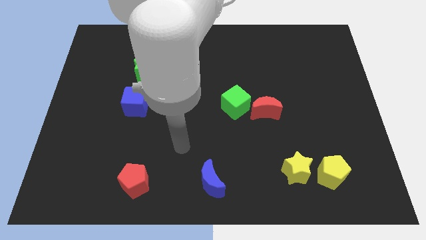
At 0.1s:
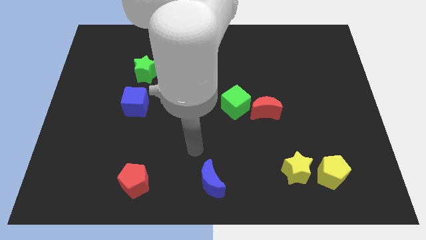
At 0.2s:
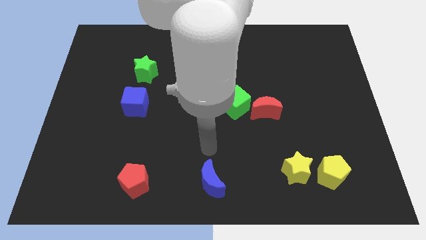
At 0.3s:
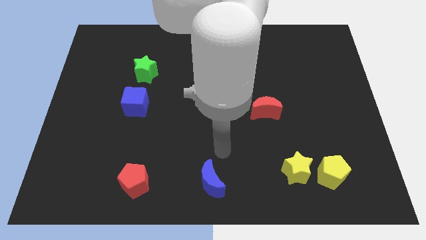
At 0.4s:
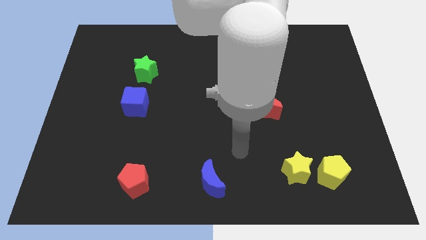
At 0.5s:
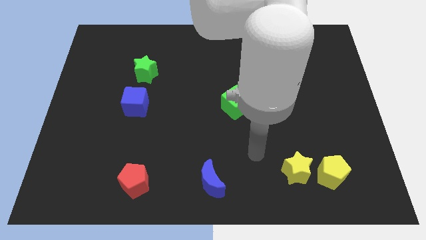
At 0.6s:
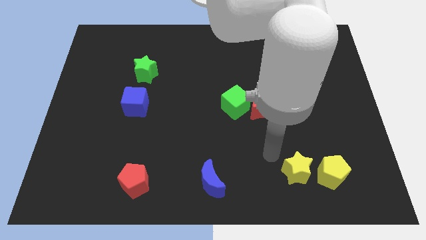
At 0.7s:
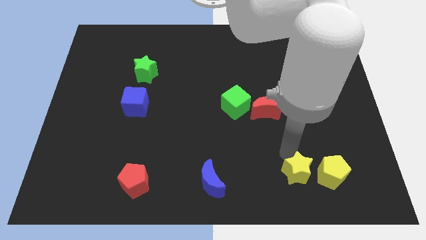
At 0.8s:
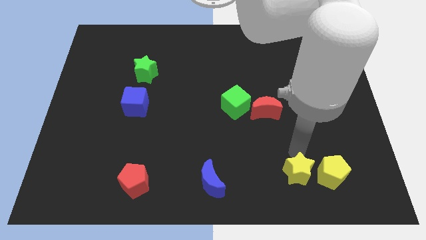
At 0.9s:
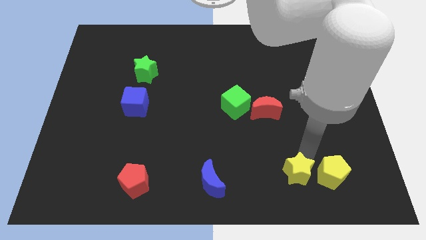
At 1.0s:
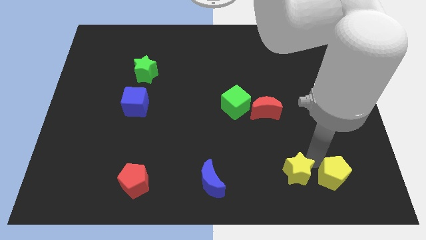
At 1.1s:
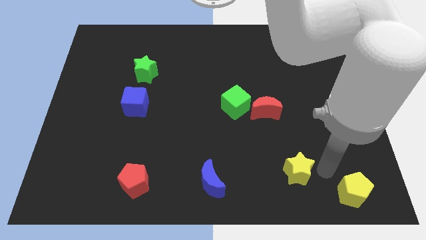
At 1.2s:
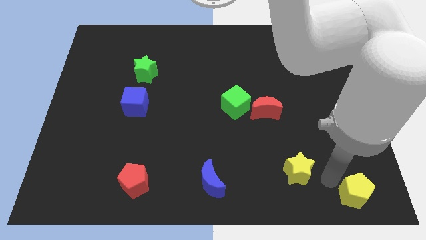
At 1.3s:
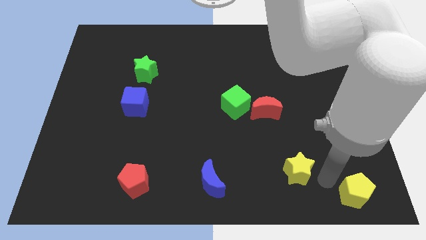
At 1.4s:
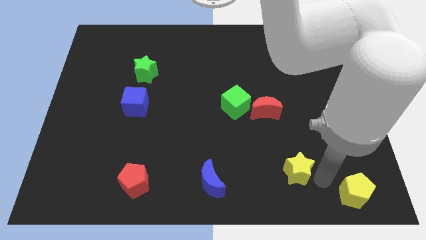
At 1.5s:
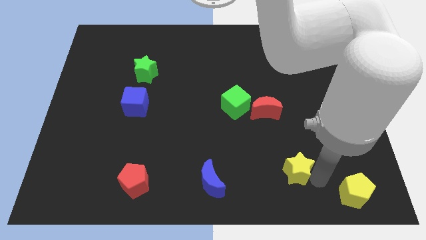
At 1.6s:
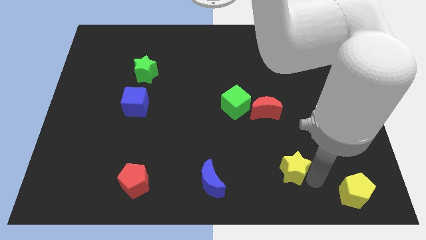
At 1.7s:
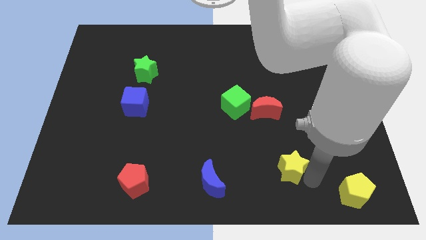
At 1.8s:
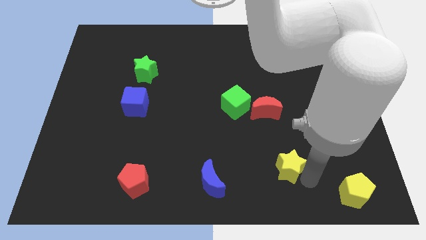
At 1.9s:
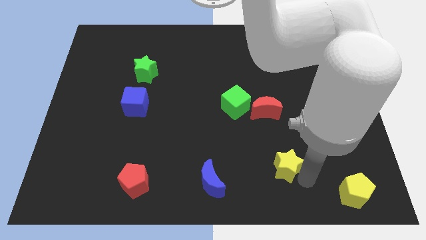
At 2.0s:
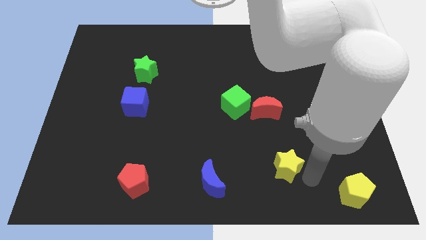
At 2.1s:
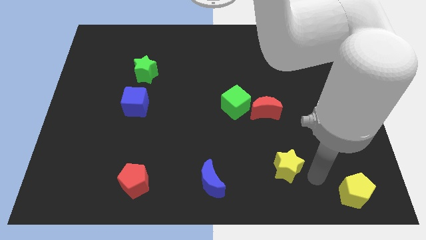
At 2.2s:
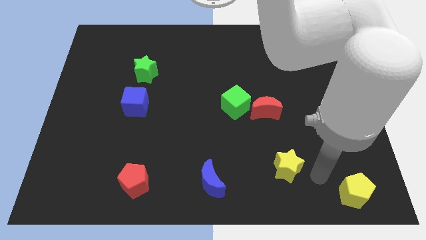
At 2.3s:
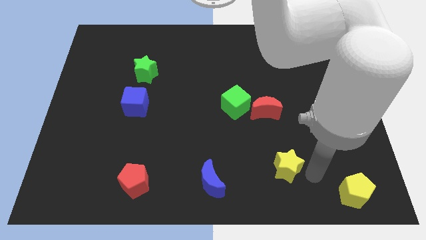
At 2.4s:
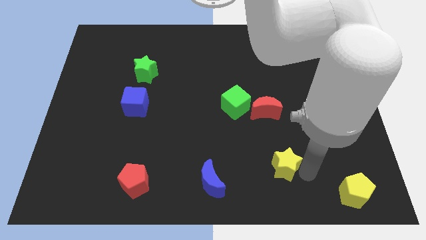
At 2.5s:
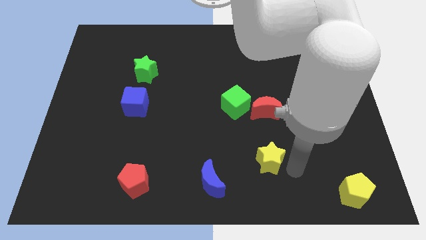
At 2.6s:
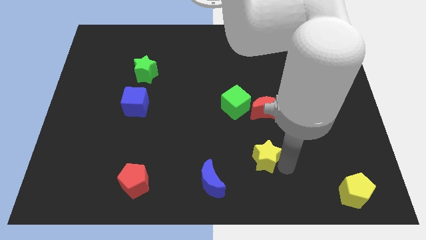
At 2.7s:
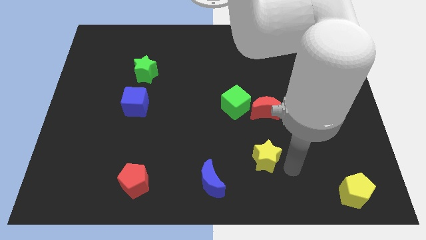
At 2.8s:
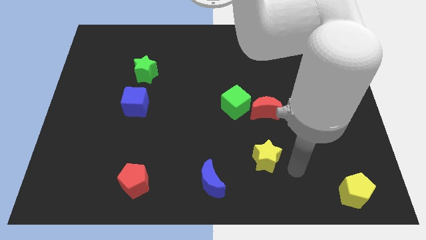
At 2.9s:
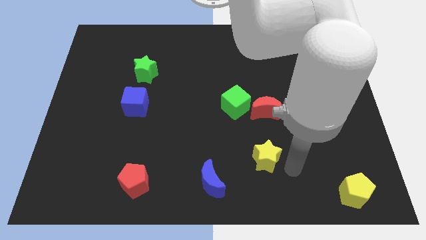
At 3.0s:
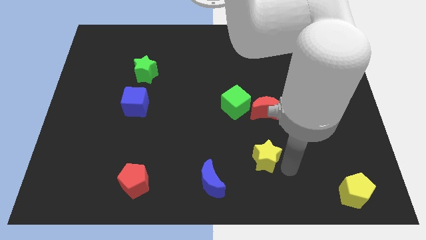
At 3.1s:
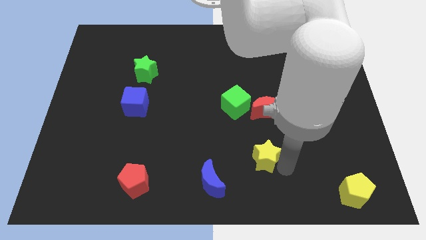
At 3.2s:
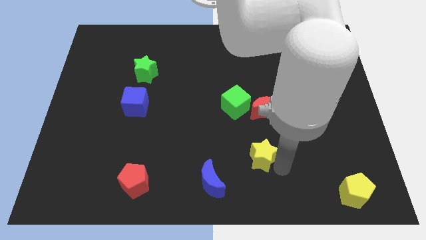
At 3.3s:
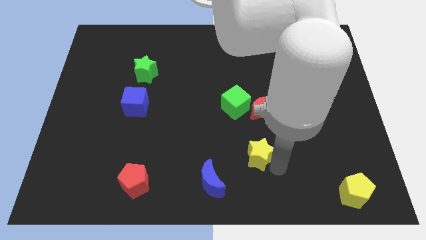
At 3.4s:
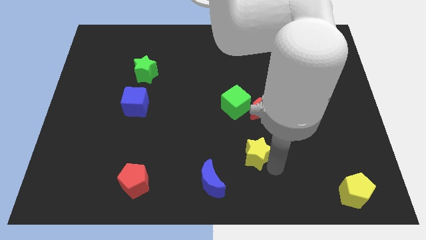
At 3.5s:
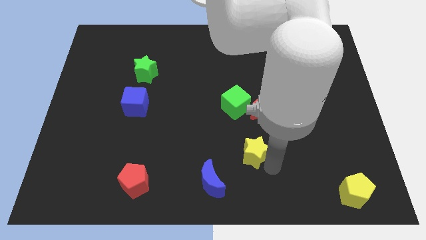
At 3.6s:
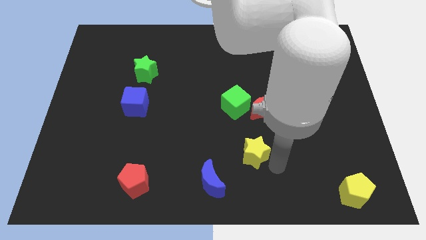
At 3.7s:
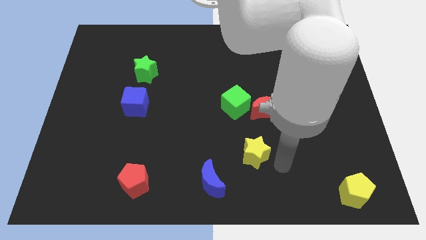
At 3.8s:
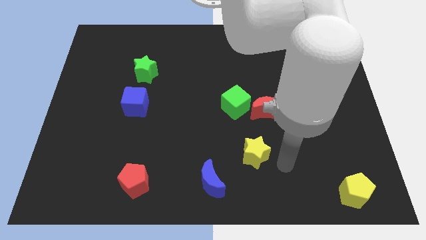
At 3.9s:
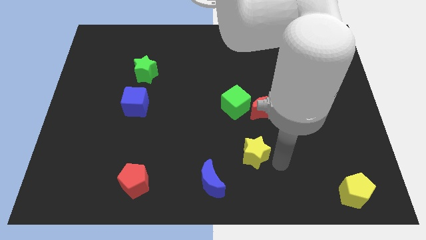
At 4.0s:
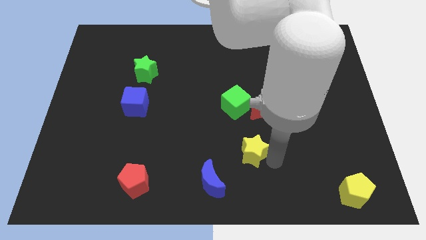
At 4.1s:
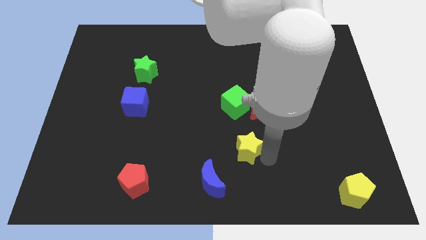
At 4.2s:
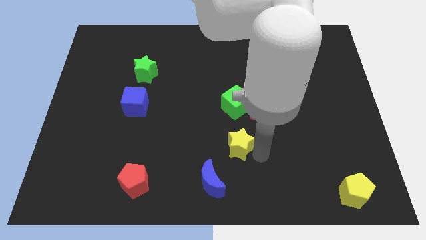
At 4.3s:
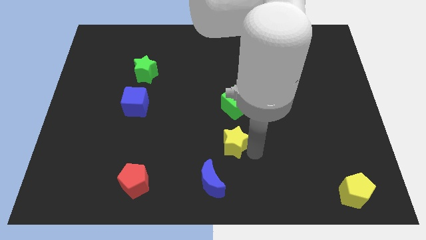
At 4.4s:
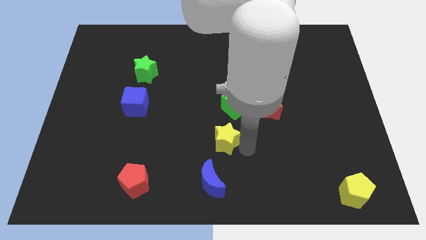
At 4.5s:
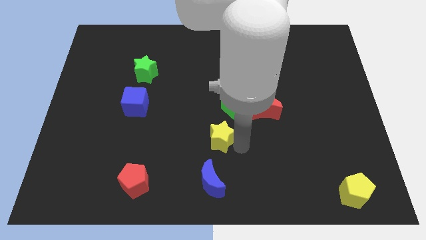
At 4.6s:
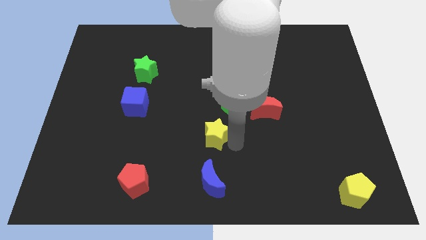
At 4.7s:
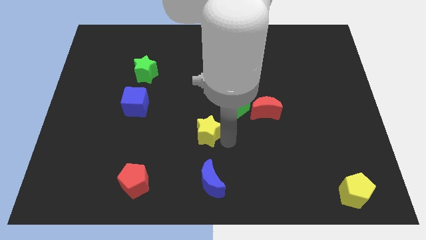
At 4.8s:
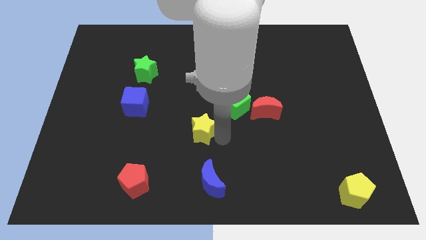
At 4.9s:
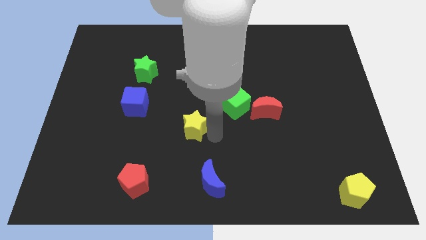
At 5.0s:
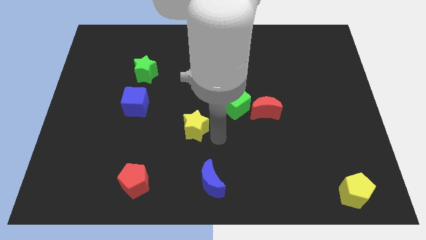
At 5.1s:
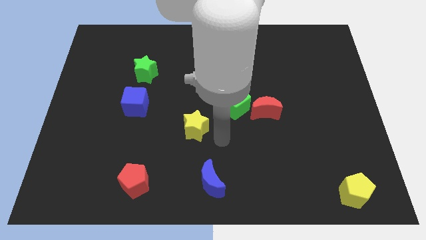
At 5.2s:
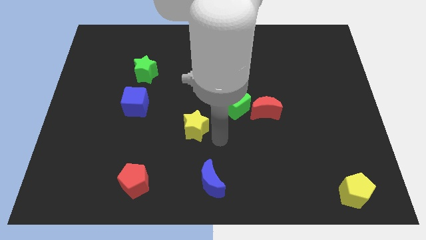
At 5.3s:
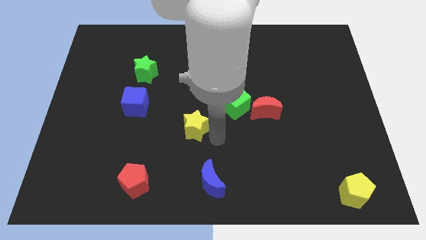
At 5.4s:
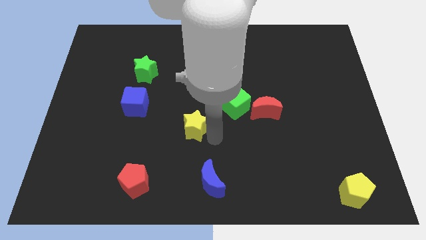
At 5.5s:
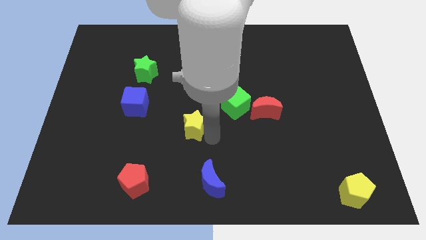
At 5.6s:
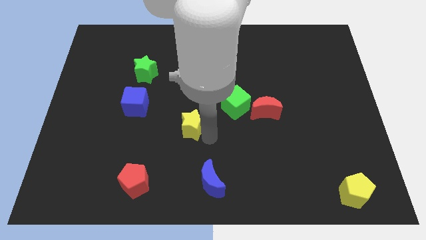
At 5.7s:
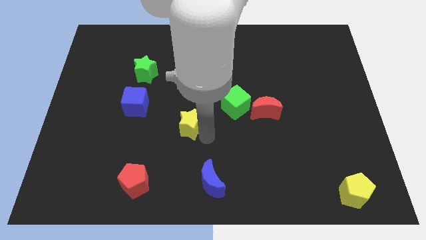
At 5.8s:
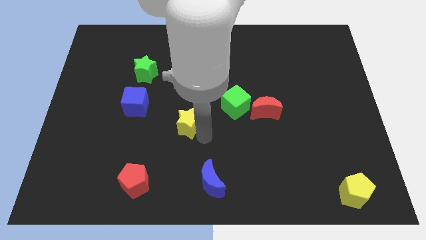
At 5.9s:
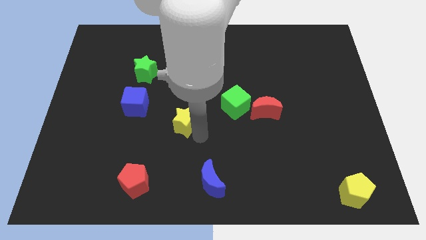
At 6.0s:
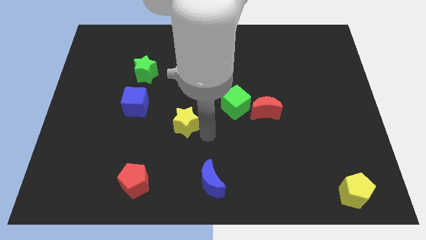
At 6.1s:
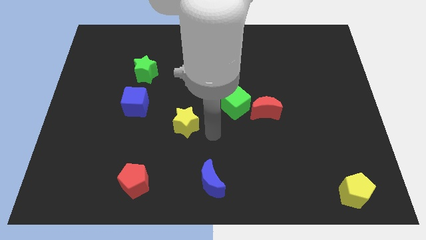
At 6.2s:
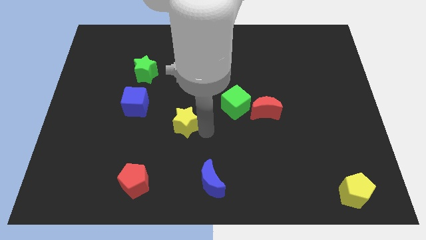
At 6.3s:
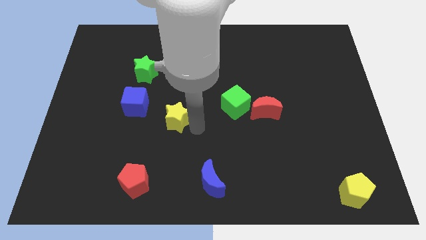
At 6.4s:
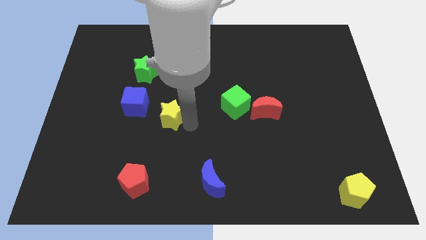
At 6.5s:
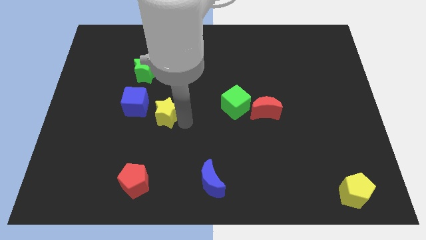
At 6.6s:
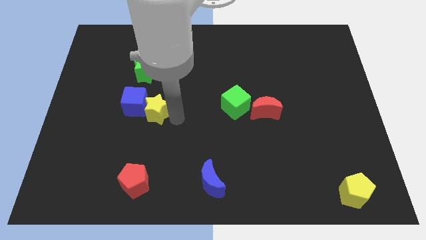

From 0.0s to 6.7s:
push the yellow star to the blue cube

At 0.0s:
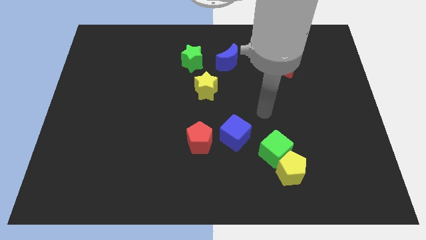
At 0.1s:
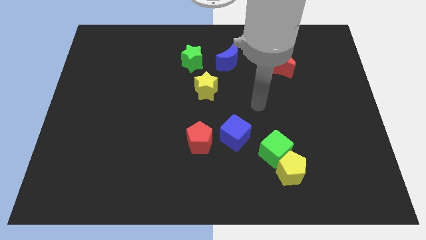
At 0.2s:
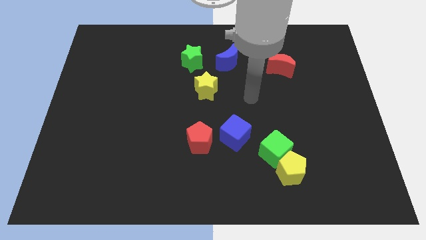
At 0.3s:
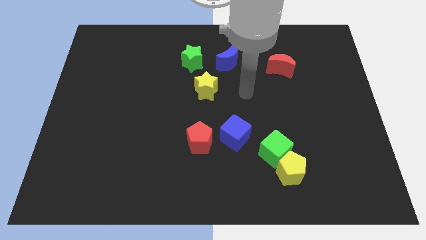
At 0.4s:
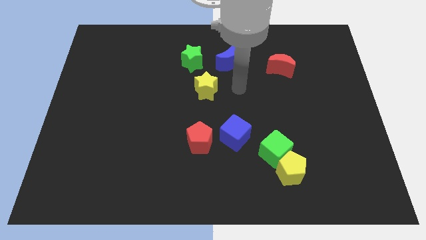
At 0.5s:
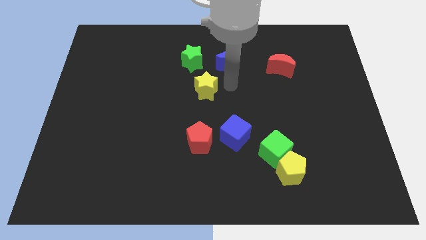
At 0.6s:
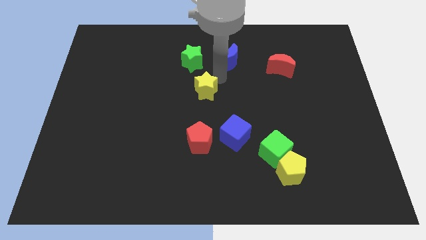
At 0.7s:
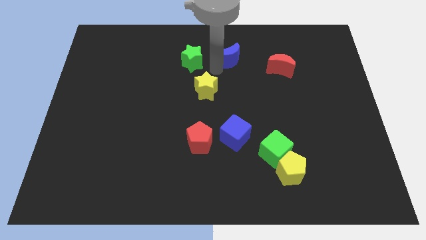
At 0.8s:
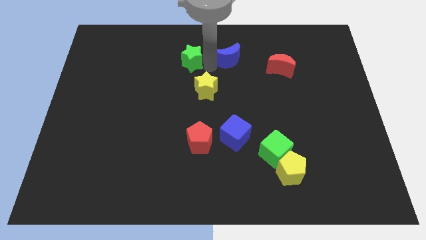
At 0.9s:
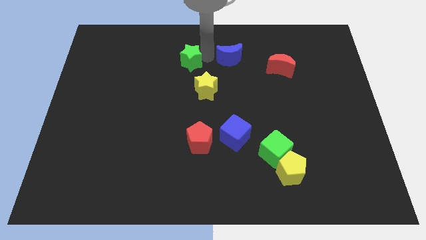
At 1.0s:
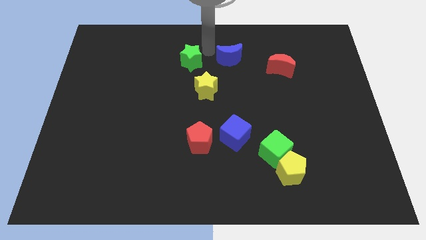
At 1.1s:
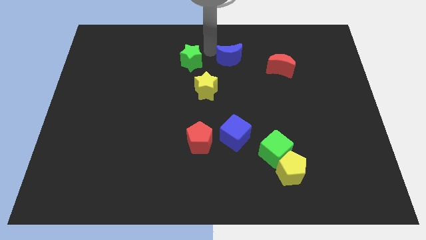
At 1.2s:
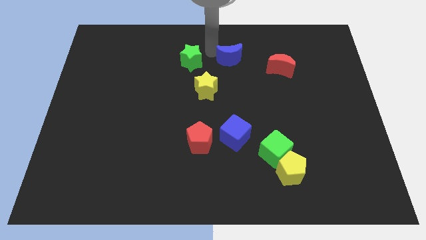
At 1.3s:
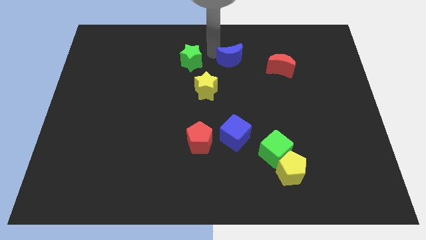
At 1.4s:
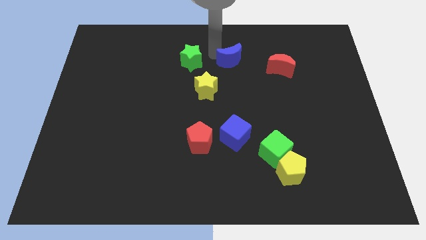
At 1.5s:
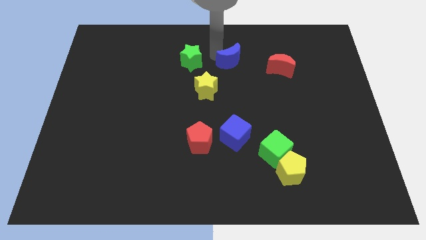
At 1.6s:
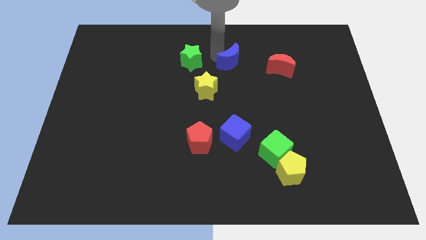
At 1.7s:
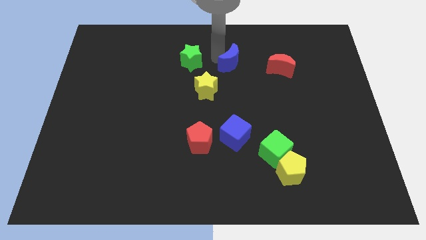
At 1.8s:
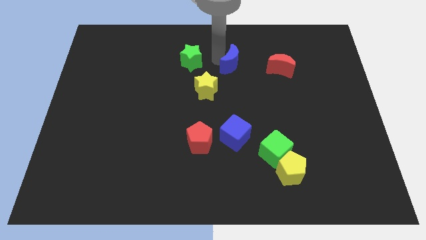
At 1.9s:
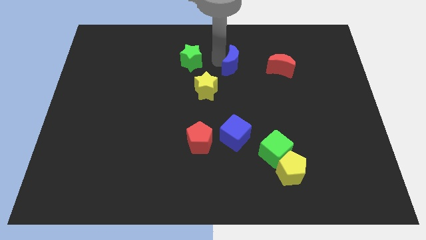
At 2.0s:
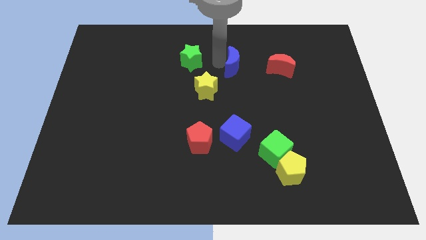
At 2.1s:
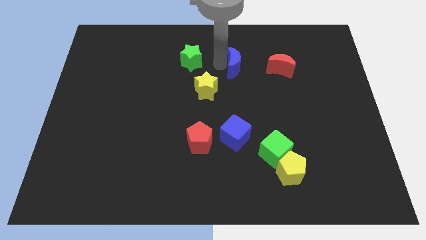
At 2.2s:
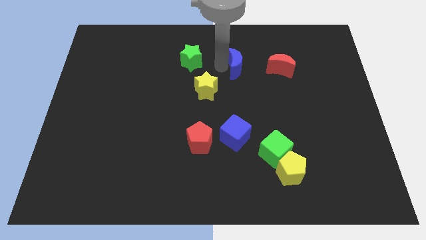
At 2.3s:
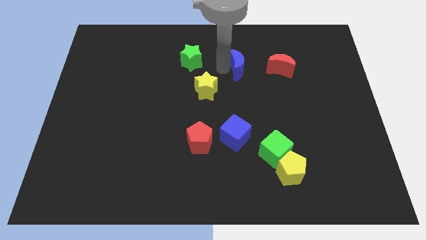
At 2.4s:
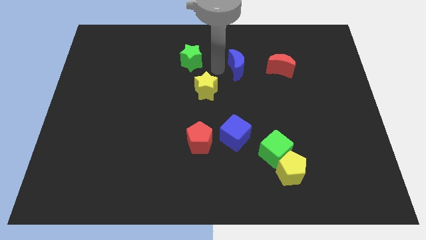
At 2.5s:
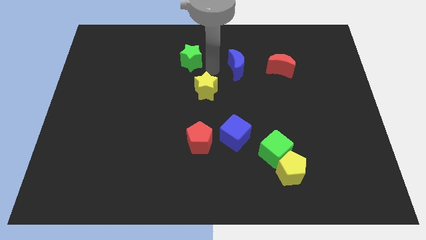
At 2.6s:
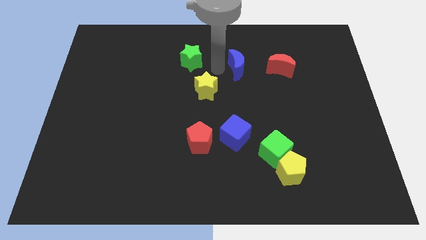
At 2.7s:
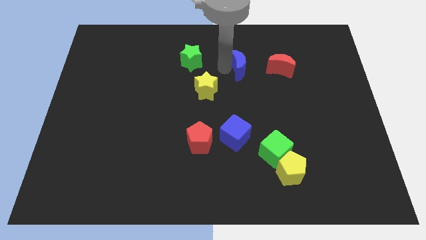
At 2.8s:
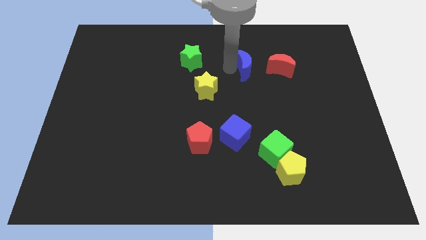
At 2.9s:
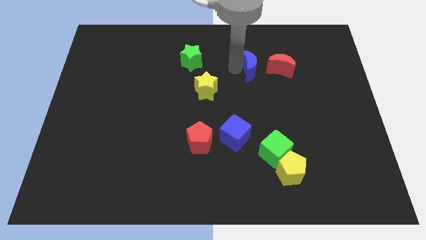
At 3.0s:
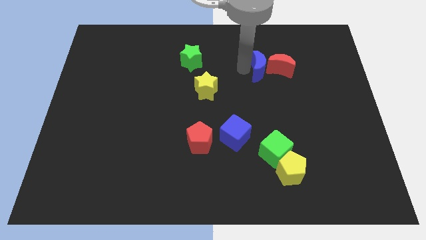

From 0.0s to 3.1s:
slide the blue moon towards the red moon
